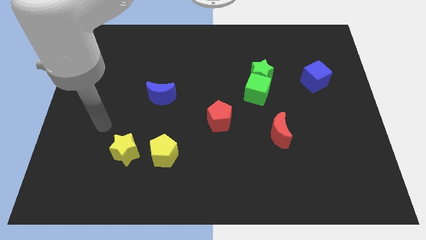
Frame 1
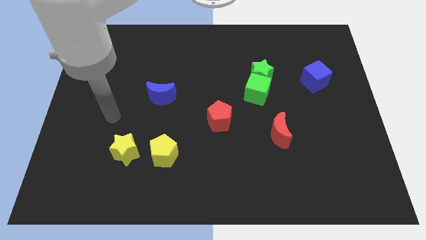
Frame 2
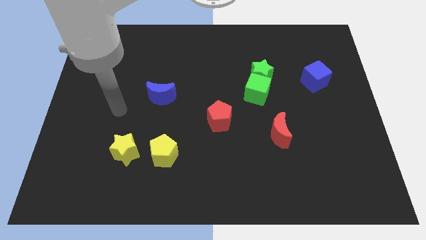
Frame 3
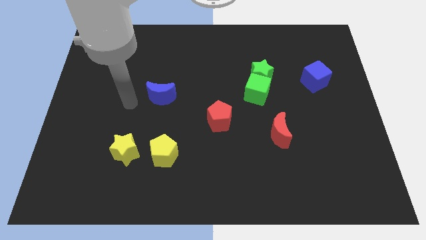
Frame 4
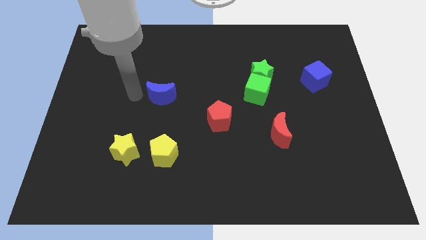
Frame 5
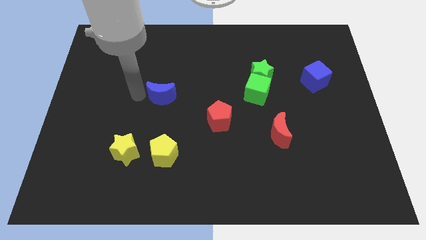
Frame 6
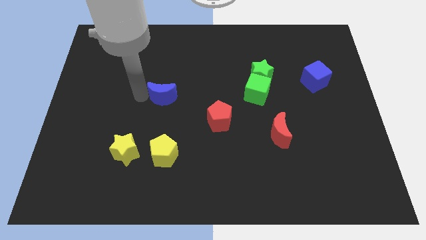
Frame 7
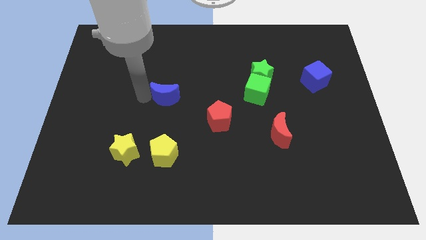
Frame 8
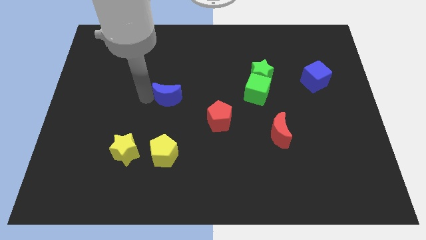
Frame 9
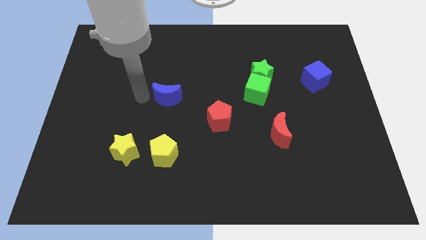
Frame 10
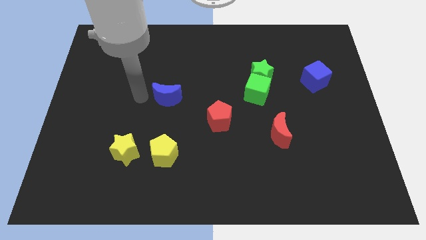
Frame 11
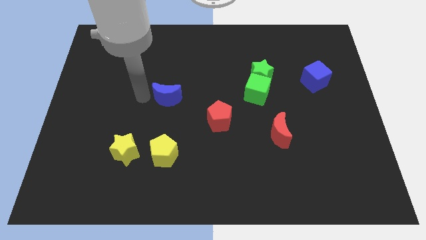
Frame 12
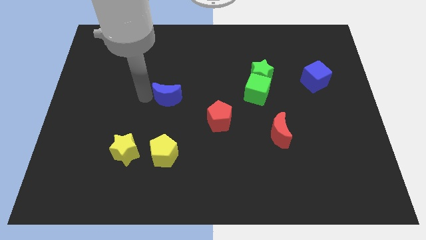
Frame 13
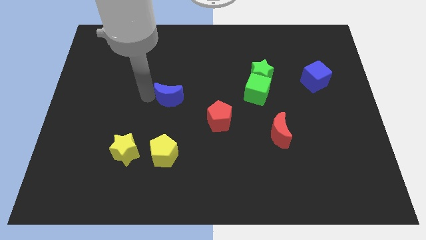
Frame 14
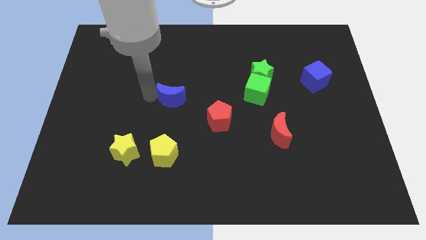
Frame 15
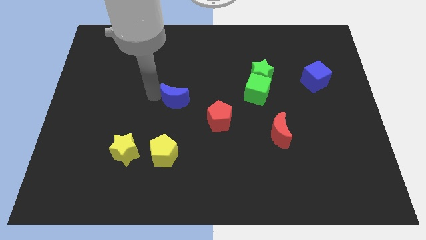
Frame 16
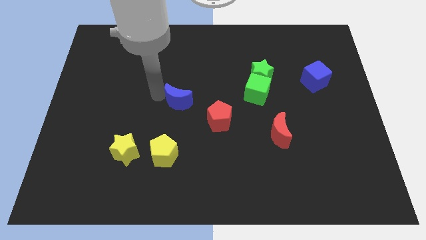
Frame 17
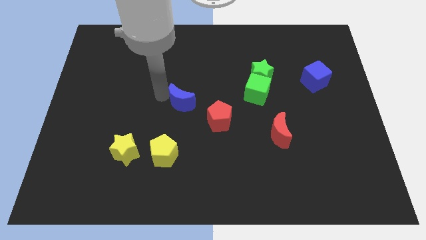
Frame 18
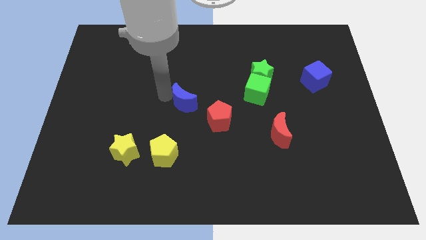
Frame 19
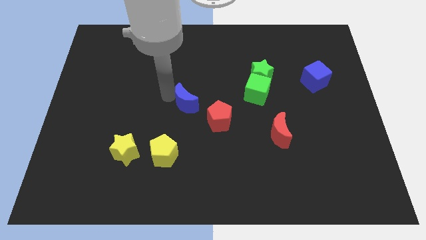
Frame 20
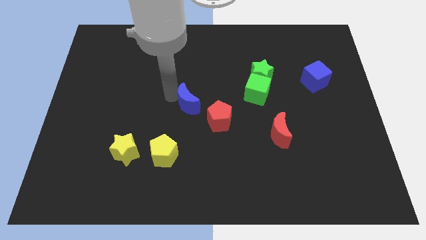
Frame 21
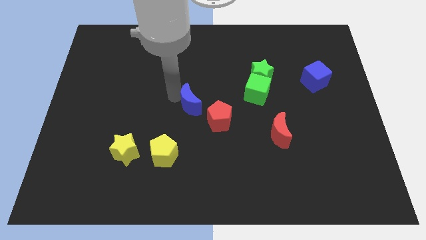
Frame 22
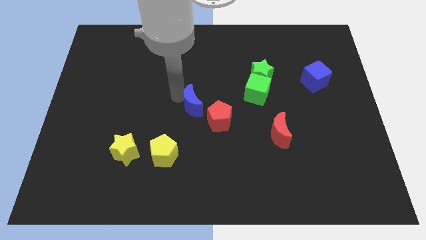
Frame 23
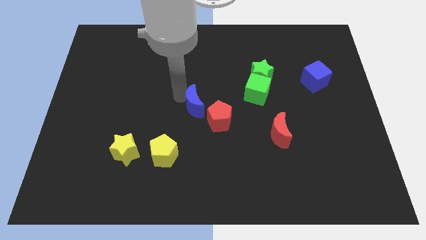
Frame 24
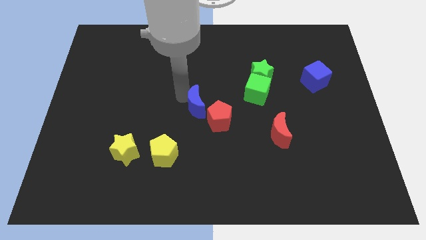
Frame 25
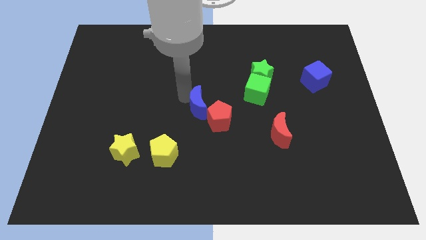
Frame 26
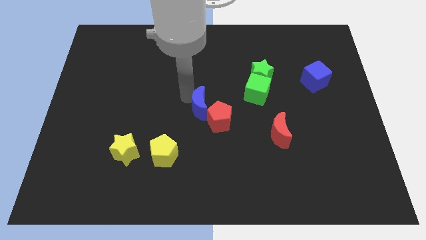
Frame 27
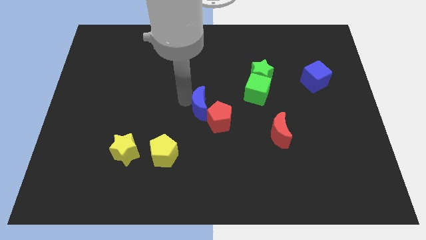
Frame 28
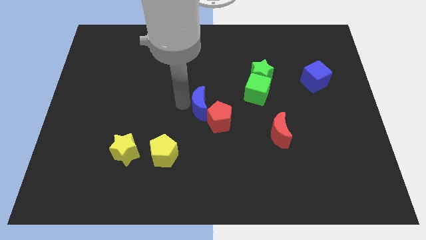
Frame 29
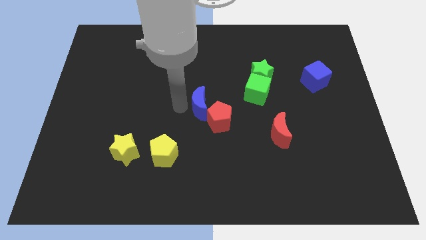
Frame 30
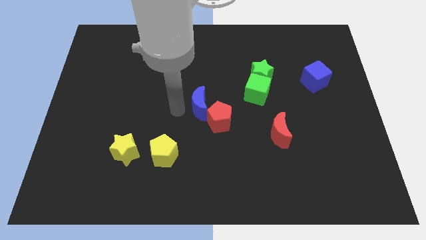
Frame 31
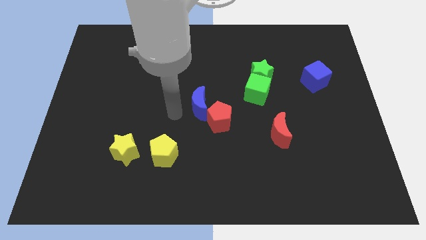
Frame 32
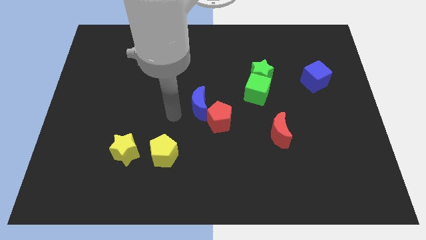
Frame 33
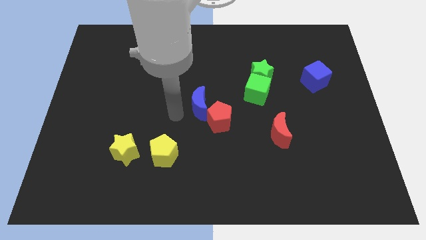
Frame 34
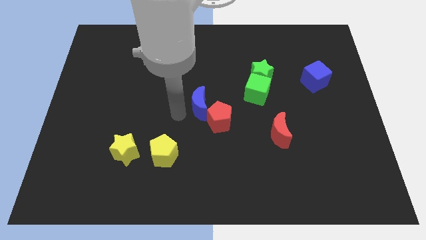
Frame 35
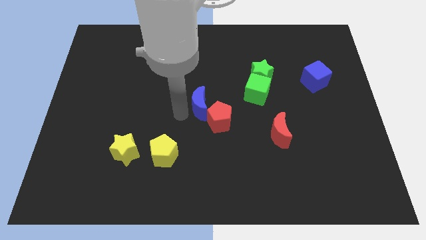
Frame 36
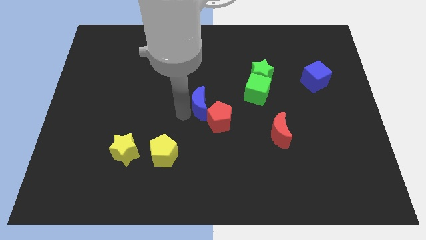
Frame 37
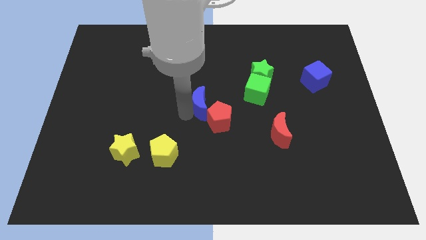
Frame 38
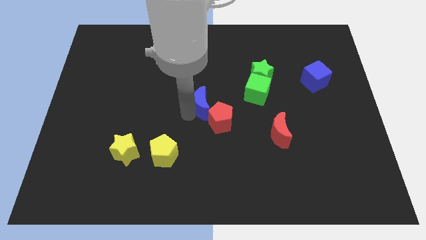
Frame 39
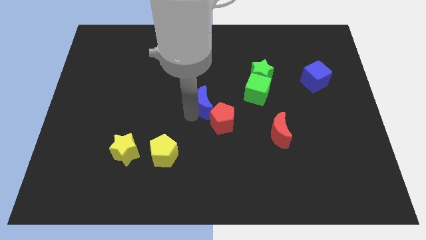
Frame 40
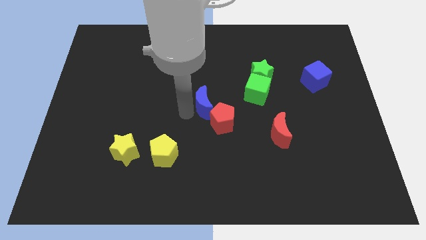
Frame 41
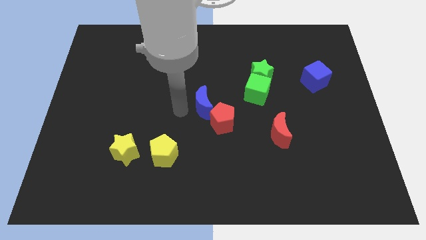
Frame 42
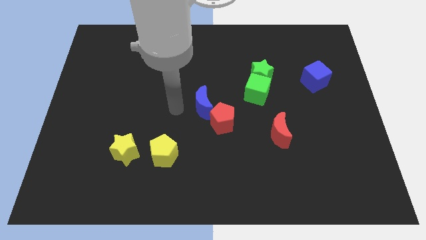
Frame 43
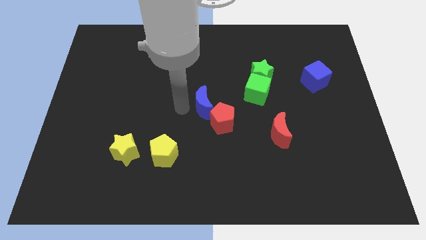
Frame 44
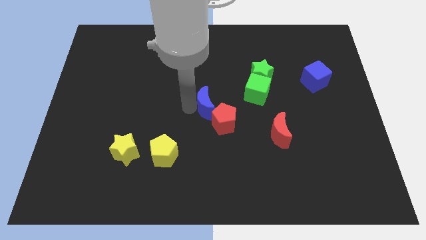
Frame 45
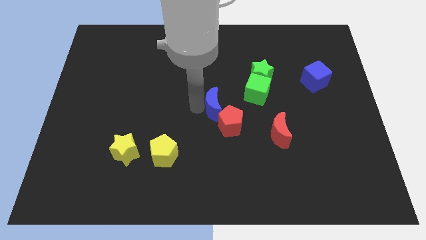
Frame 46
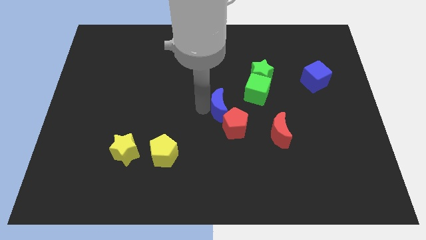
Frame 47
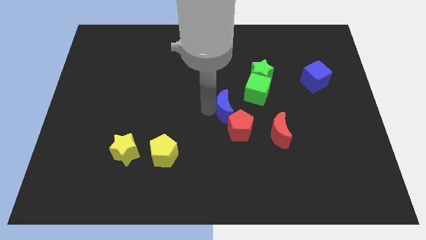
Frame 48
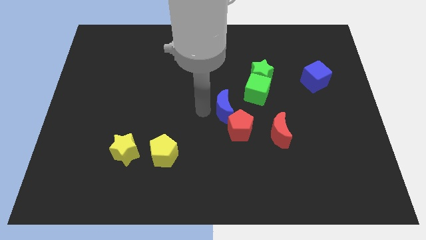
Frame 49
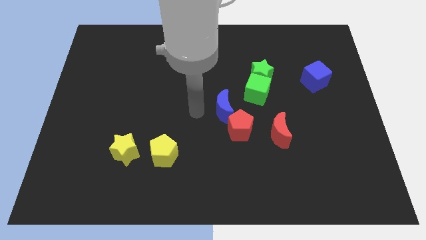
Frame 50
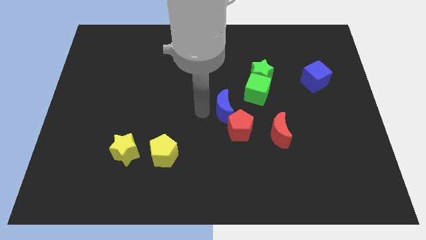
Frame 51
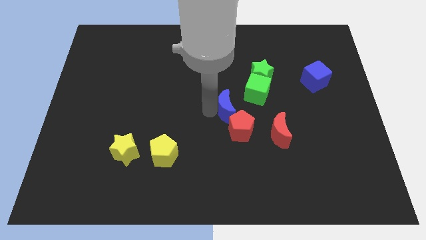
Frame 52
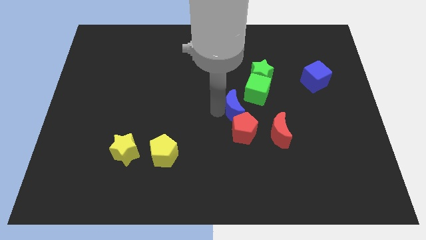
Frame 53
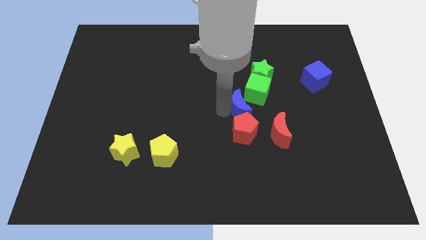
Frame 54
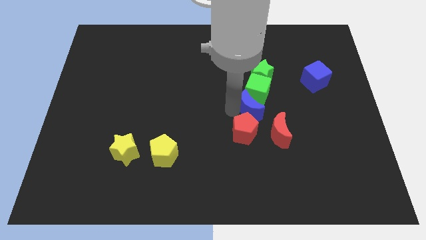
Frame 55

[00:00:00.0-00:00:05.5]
push the blue moon right

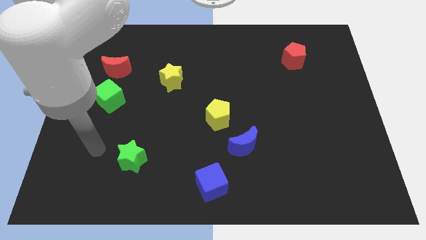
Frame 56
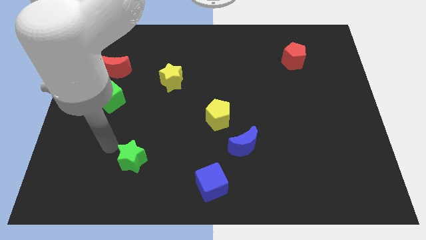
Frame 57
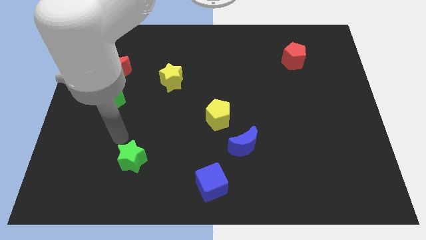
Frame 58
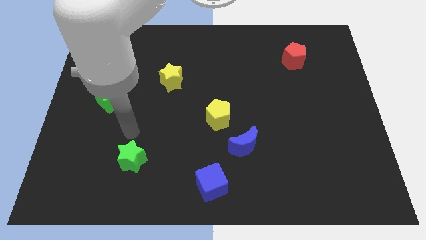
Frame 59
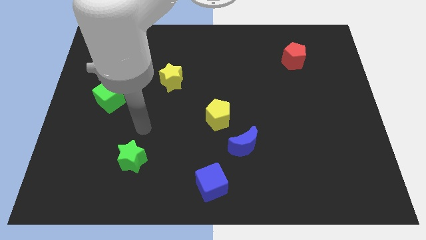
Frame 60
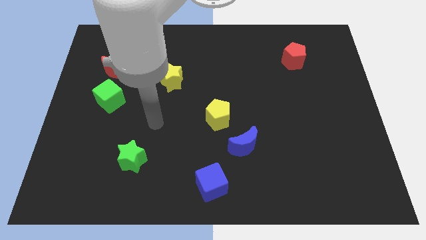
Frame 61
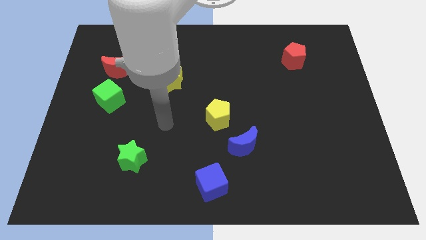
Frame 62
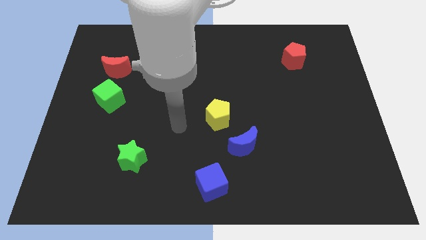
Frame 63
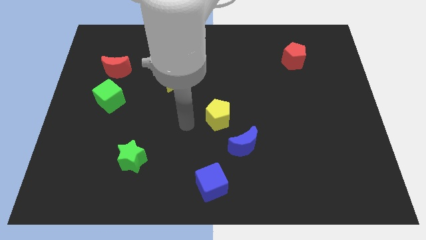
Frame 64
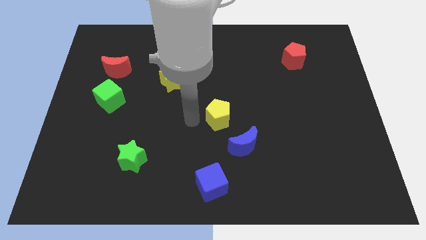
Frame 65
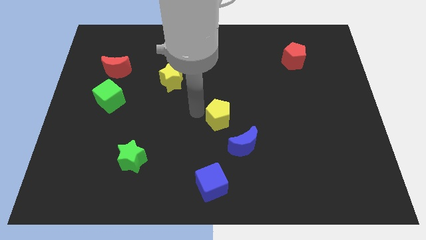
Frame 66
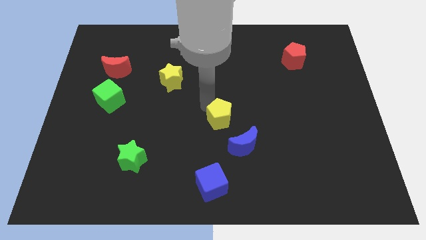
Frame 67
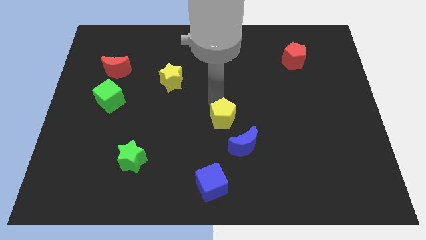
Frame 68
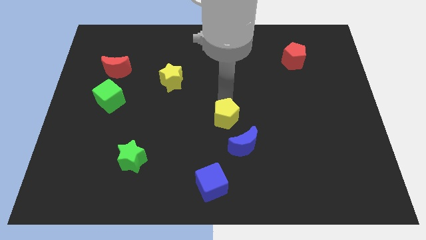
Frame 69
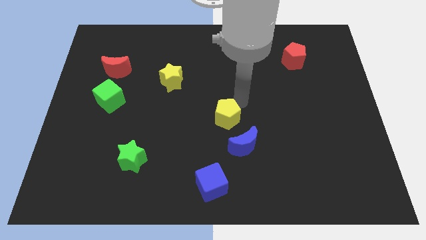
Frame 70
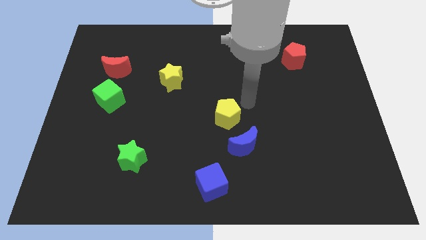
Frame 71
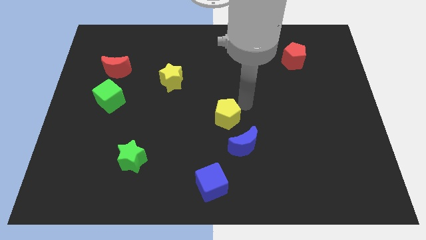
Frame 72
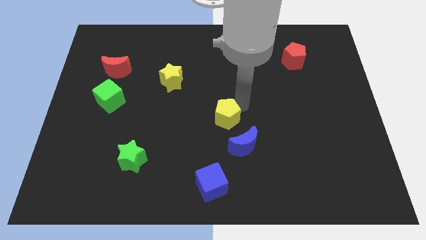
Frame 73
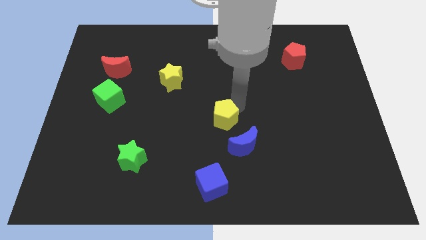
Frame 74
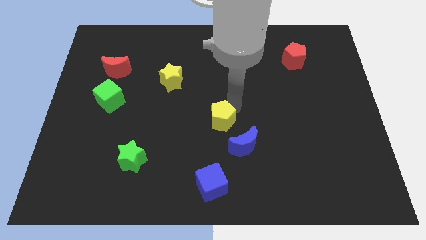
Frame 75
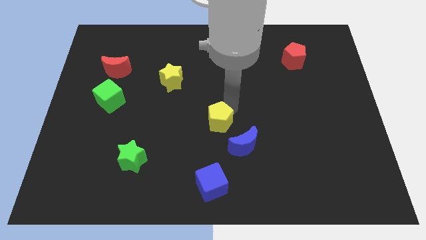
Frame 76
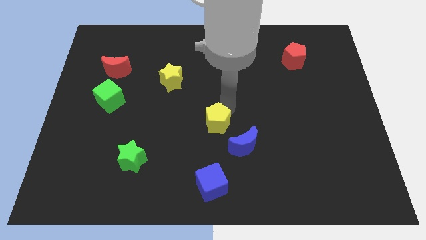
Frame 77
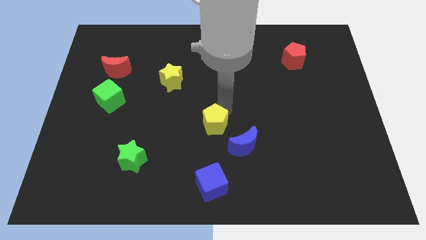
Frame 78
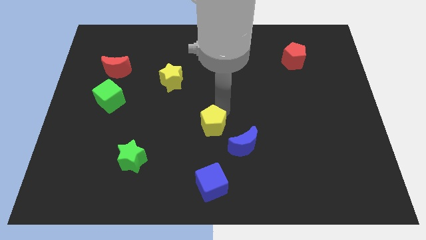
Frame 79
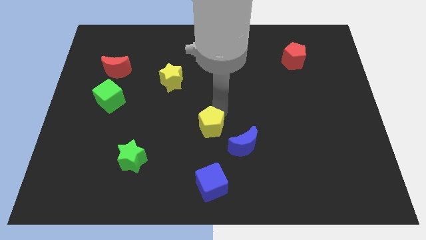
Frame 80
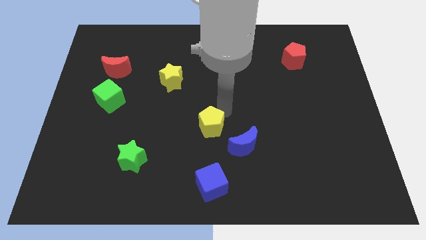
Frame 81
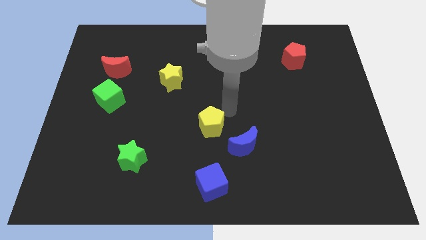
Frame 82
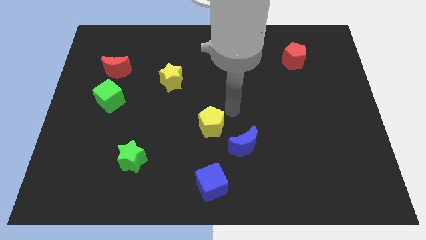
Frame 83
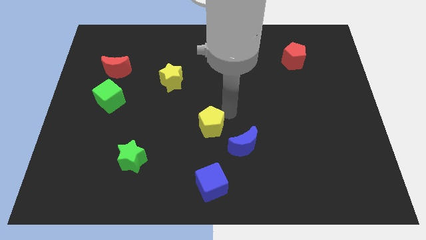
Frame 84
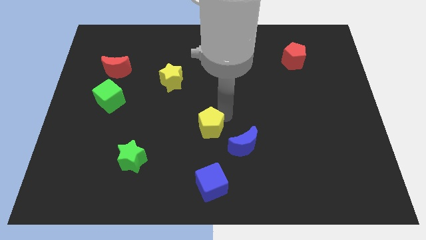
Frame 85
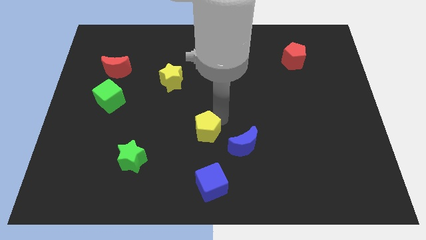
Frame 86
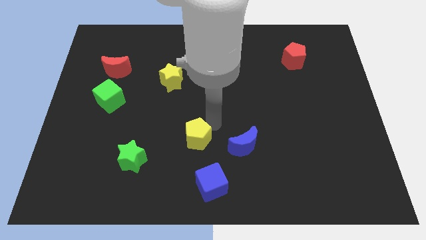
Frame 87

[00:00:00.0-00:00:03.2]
move the yellow pentagon slightly diagonally down and to the left
